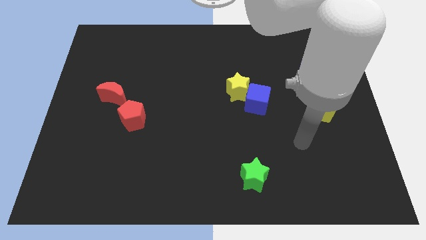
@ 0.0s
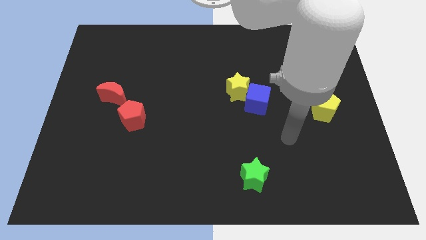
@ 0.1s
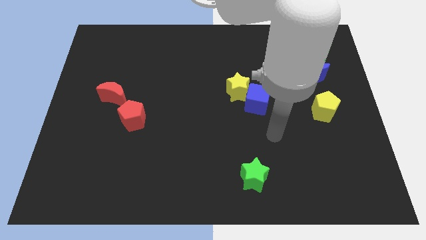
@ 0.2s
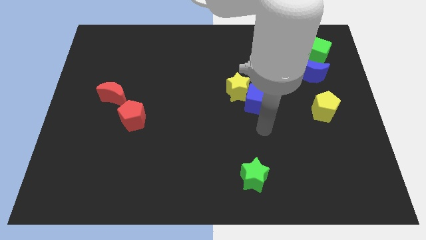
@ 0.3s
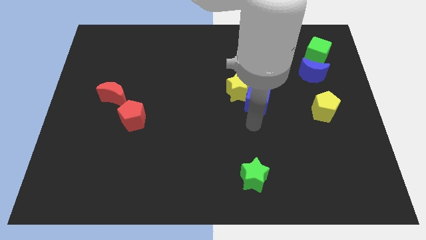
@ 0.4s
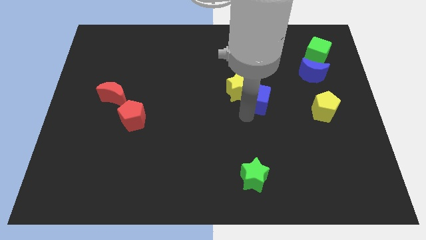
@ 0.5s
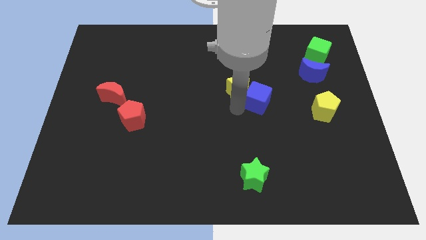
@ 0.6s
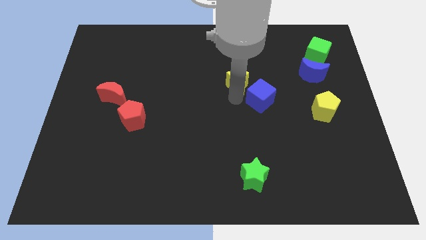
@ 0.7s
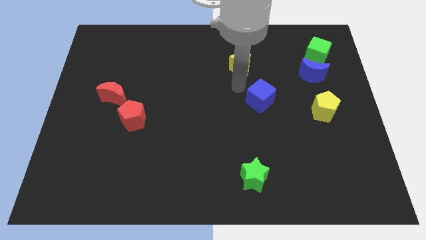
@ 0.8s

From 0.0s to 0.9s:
move the blue cube away from the yellow star

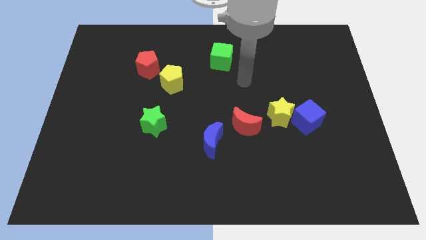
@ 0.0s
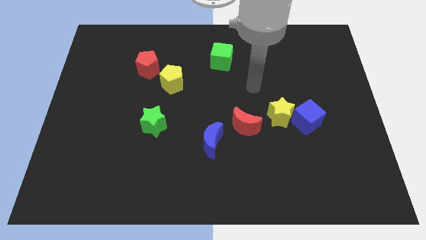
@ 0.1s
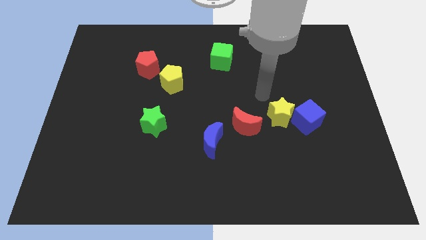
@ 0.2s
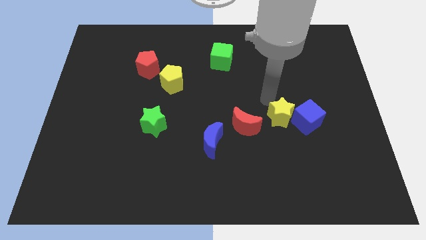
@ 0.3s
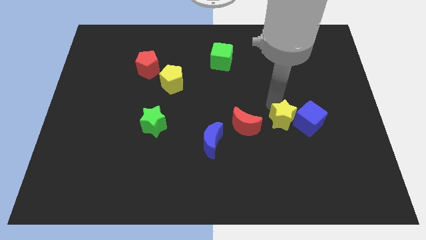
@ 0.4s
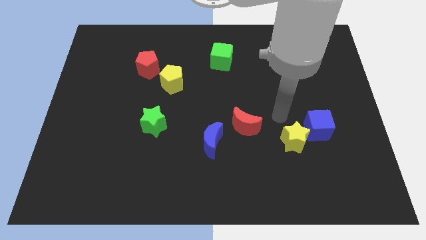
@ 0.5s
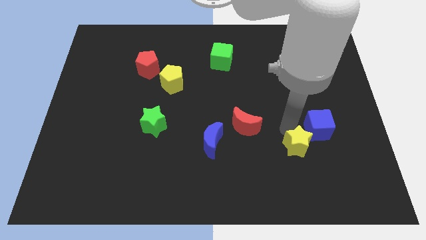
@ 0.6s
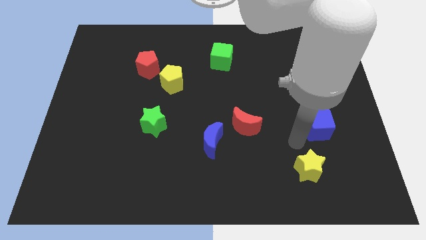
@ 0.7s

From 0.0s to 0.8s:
pull the blue cube apart from the yellow star

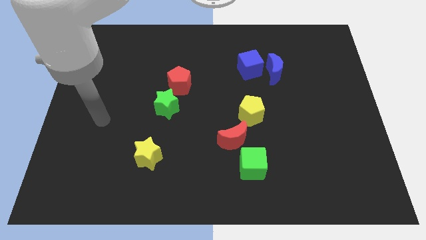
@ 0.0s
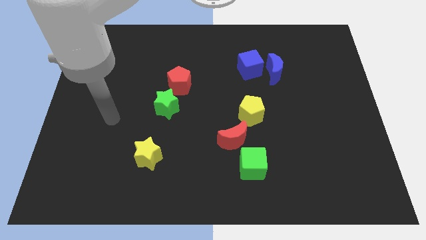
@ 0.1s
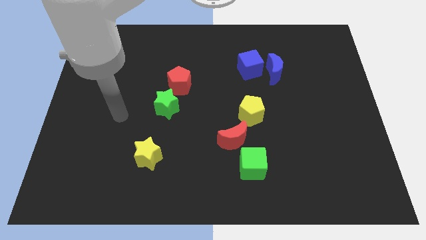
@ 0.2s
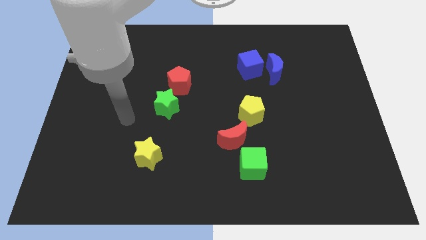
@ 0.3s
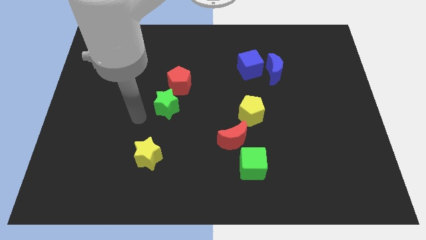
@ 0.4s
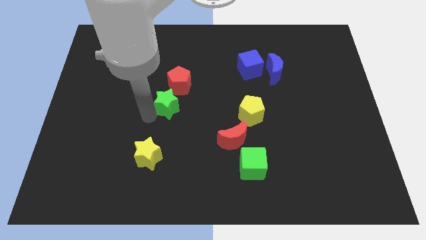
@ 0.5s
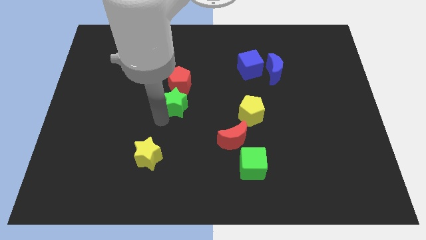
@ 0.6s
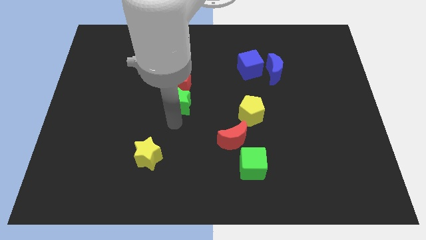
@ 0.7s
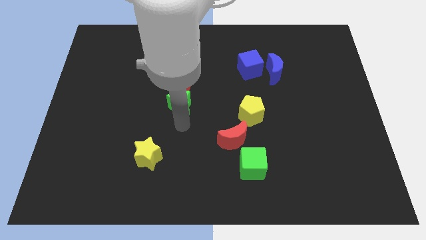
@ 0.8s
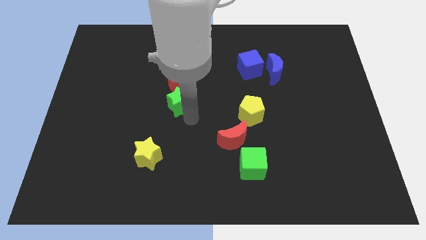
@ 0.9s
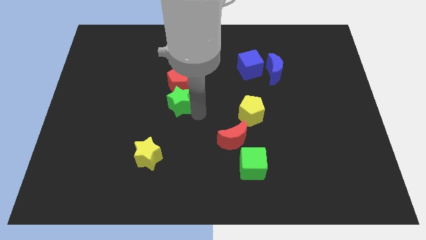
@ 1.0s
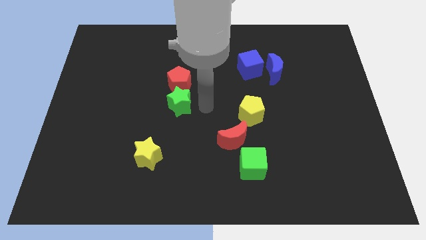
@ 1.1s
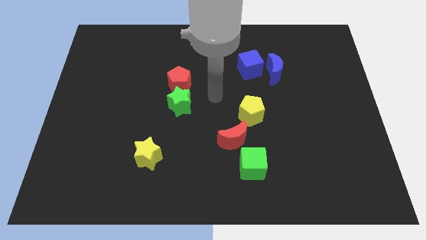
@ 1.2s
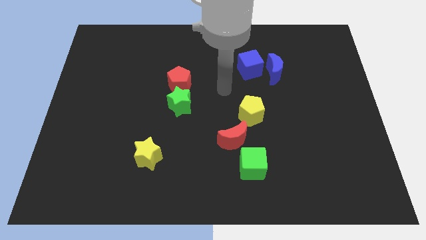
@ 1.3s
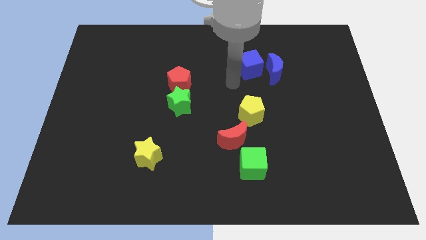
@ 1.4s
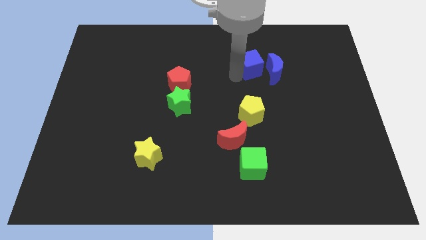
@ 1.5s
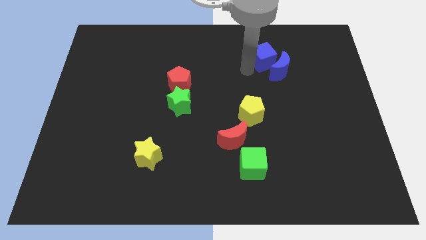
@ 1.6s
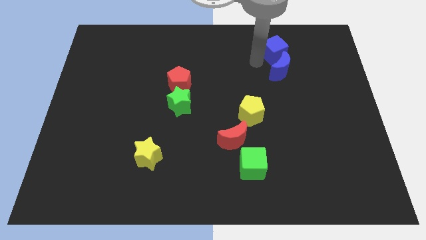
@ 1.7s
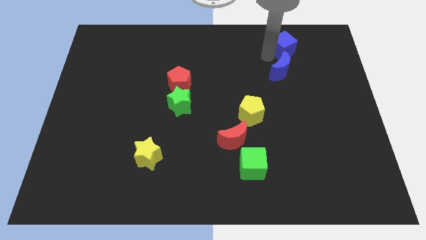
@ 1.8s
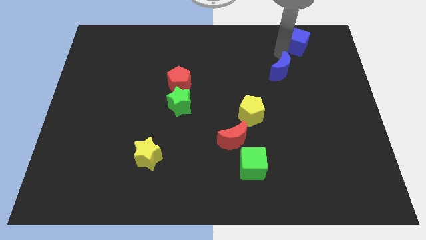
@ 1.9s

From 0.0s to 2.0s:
separate the blue moon from the blue cube

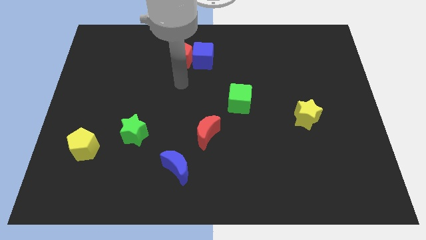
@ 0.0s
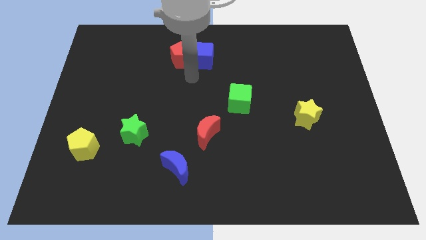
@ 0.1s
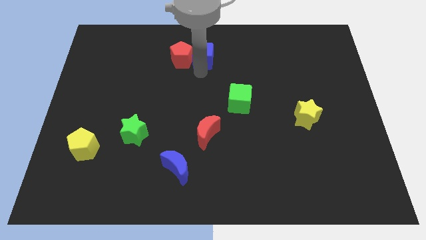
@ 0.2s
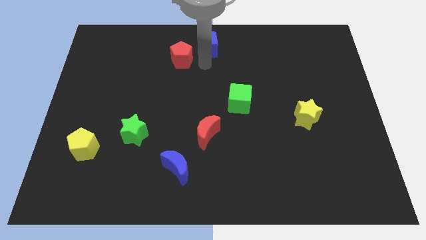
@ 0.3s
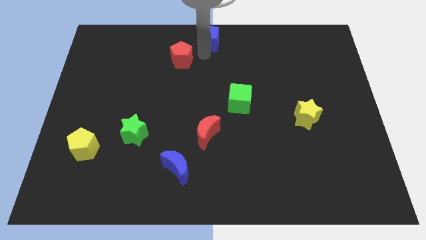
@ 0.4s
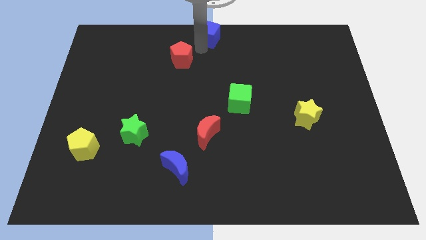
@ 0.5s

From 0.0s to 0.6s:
separate the red pentagon from the blue cube

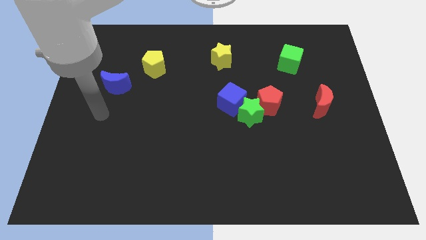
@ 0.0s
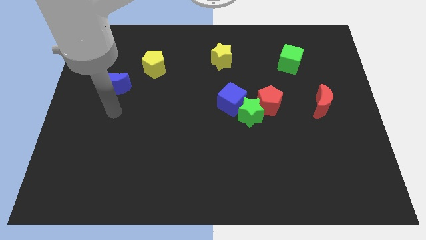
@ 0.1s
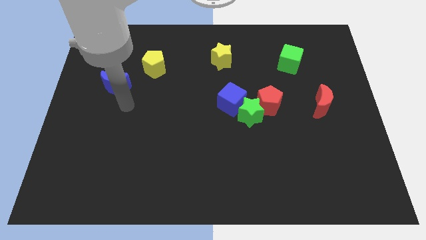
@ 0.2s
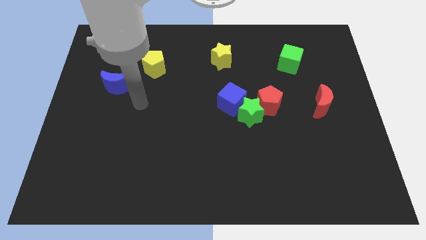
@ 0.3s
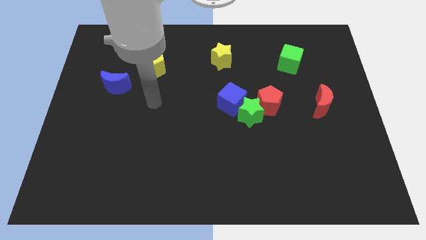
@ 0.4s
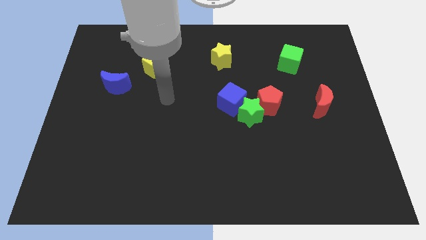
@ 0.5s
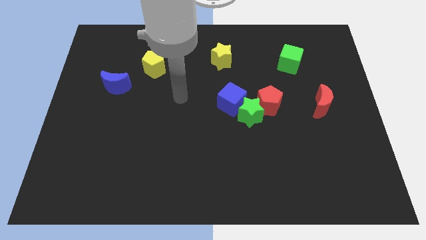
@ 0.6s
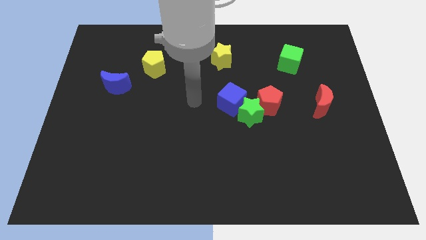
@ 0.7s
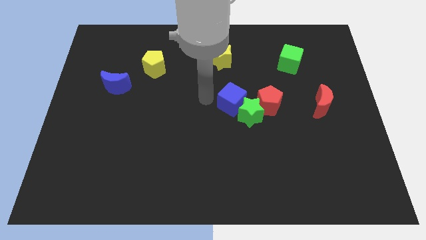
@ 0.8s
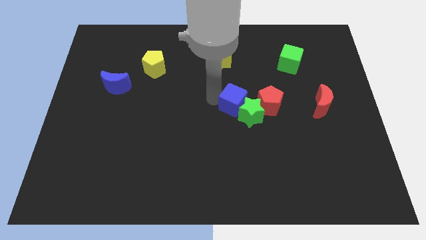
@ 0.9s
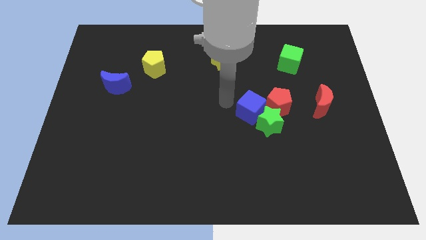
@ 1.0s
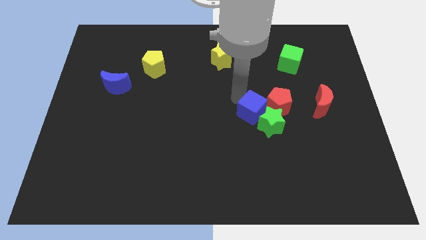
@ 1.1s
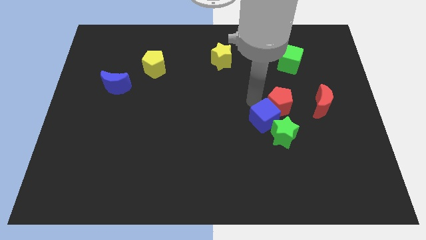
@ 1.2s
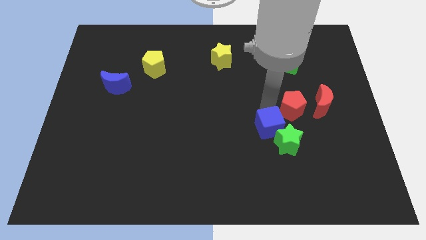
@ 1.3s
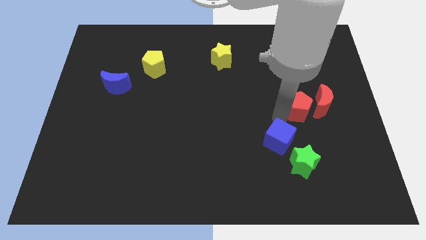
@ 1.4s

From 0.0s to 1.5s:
move the green star away from the red pentagon and blue cube

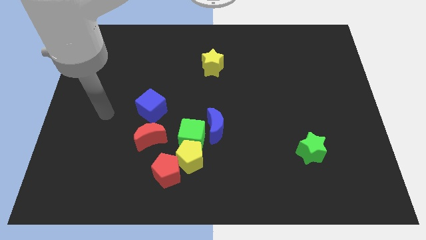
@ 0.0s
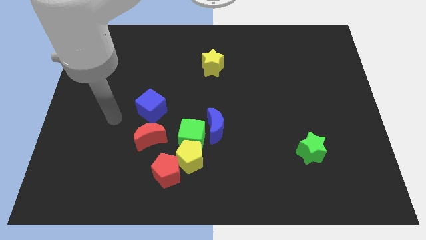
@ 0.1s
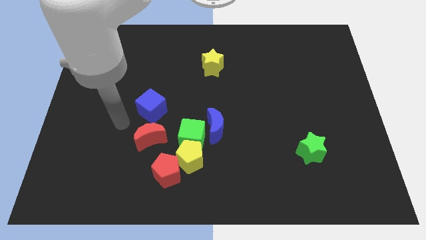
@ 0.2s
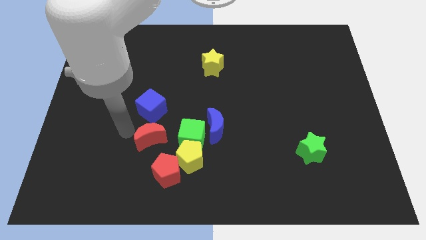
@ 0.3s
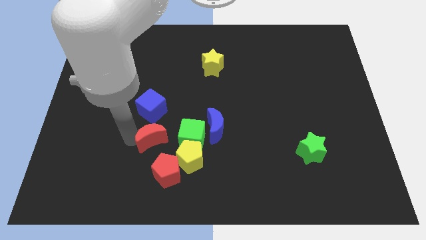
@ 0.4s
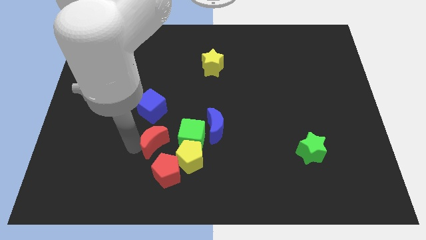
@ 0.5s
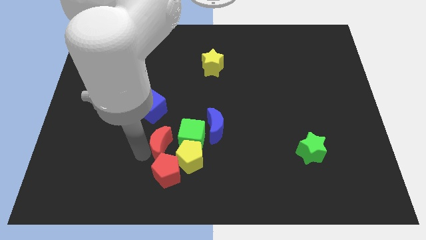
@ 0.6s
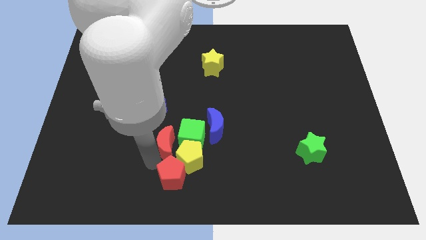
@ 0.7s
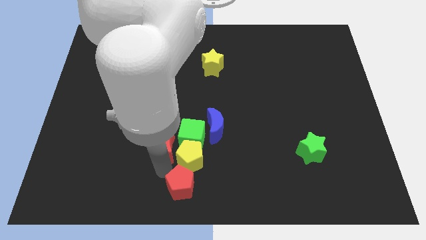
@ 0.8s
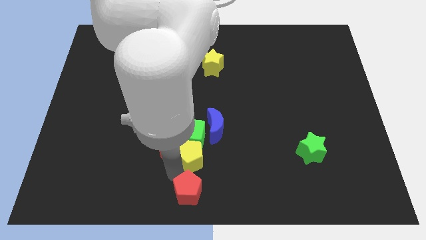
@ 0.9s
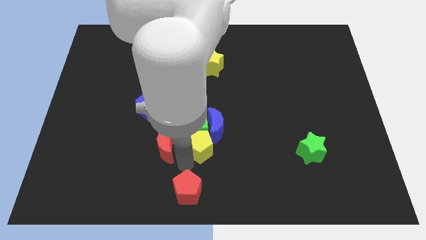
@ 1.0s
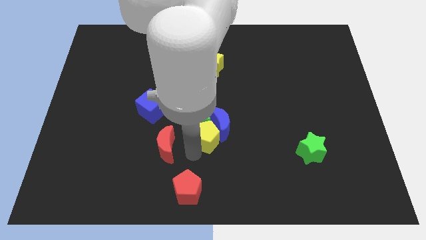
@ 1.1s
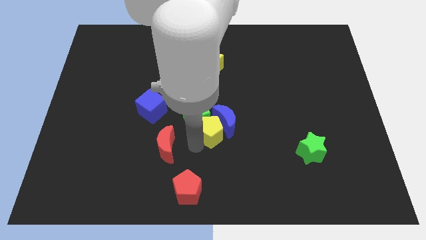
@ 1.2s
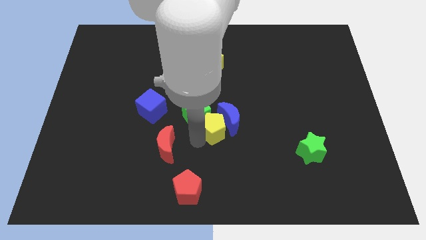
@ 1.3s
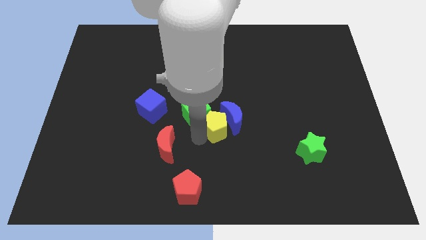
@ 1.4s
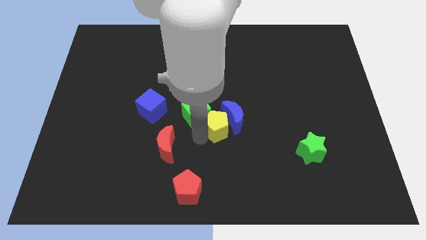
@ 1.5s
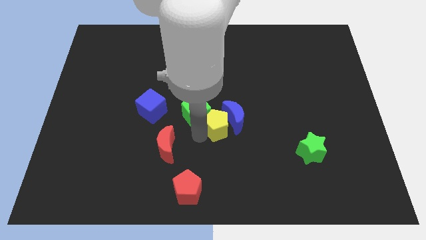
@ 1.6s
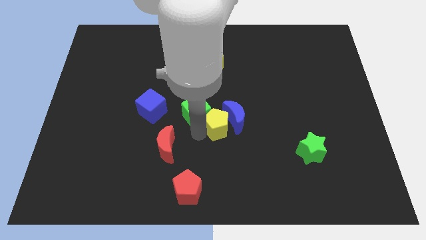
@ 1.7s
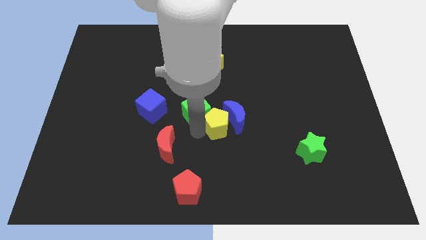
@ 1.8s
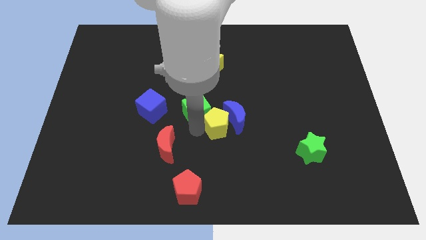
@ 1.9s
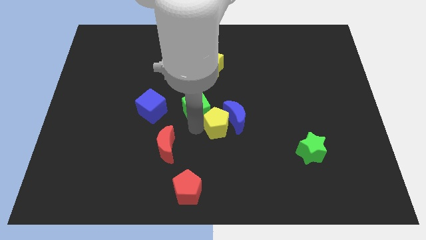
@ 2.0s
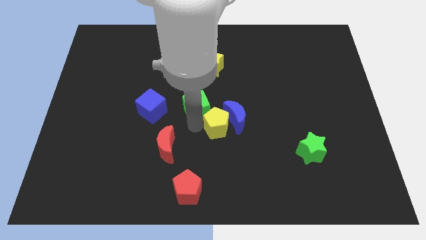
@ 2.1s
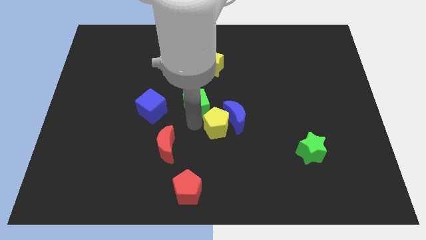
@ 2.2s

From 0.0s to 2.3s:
separate the green cube from the group of blocks

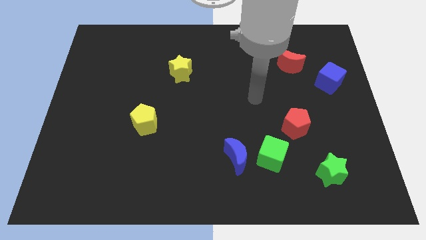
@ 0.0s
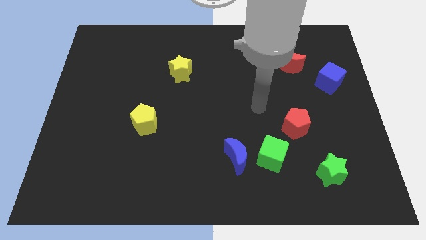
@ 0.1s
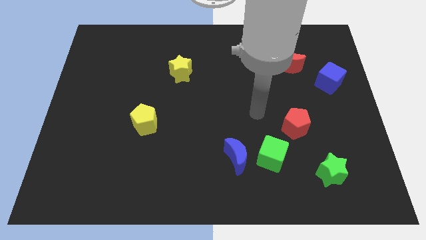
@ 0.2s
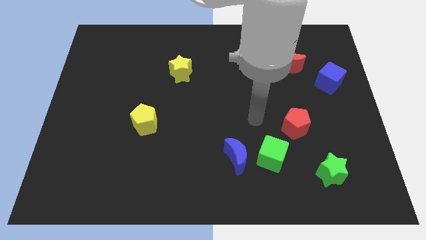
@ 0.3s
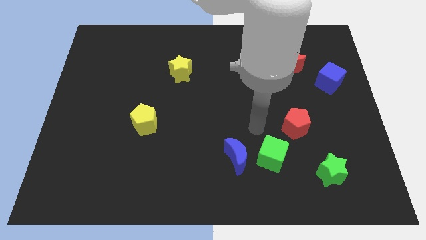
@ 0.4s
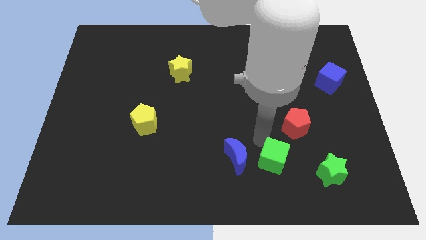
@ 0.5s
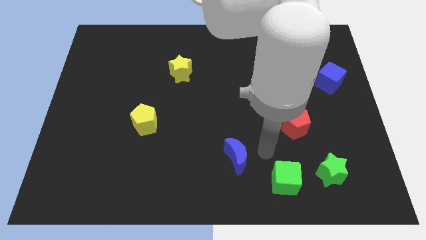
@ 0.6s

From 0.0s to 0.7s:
move the blue moon away from the green cube

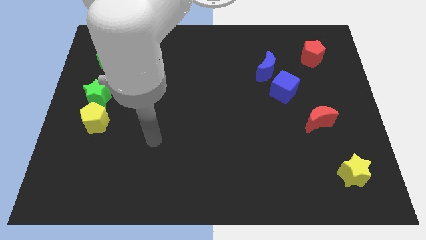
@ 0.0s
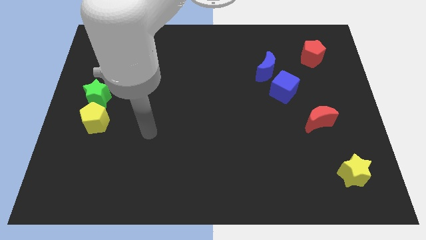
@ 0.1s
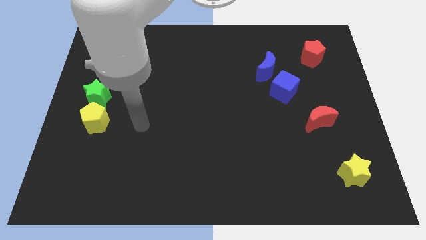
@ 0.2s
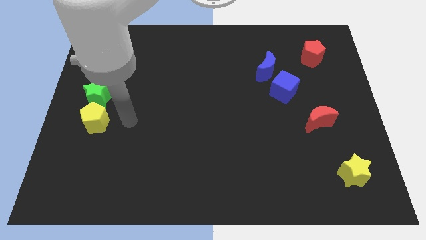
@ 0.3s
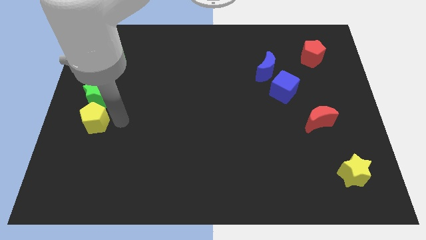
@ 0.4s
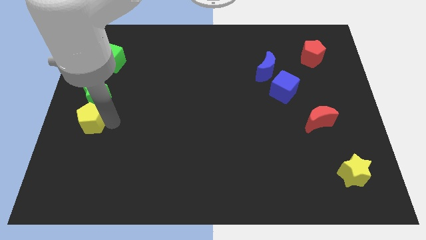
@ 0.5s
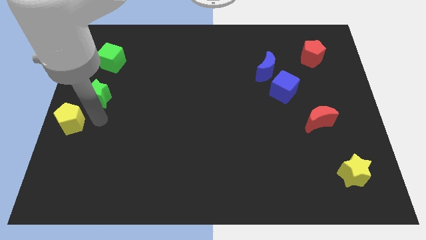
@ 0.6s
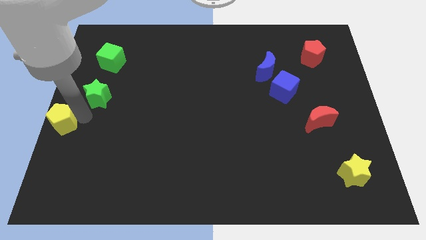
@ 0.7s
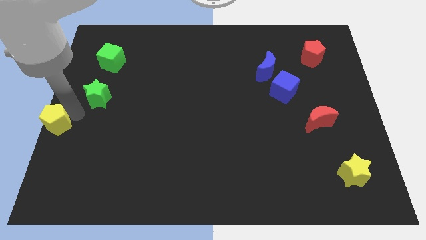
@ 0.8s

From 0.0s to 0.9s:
move the green star away from the yellow pentagon
